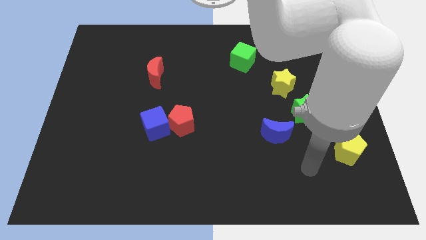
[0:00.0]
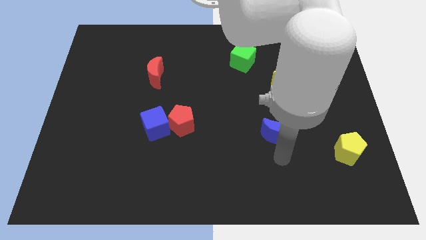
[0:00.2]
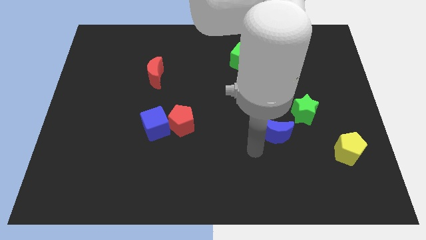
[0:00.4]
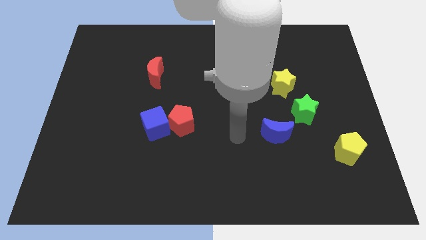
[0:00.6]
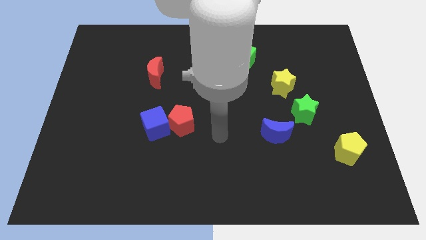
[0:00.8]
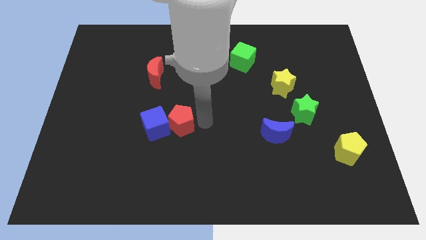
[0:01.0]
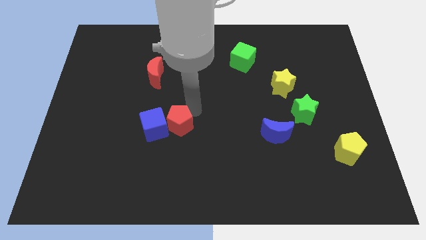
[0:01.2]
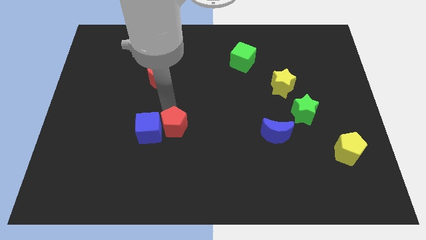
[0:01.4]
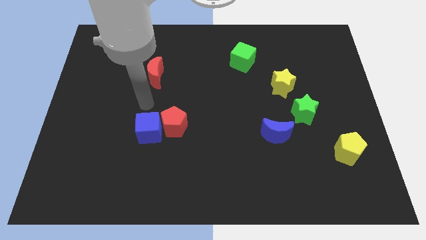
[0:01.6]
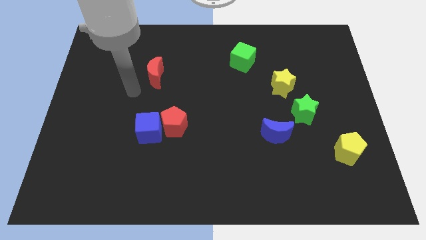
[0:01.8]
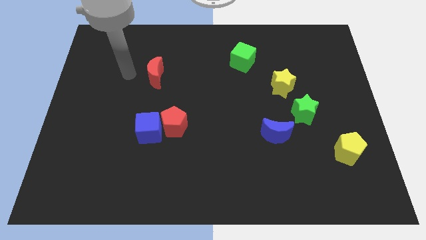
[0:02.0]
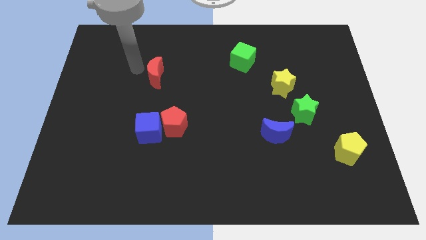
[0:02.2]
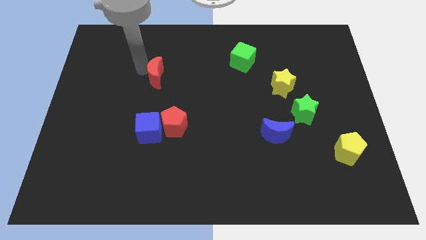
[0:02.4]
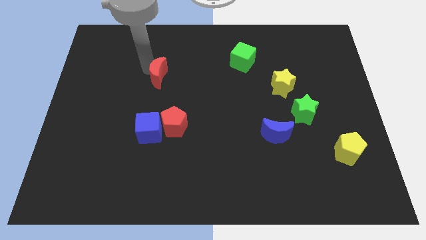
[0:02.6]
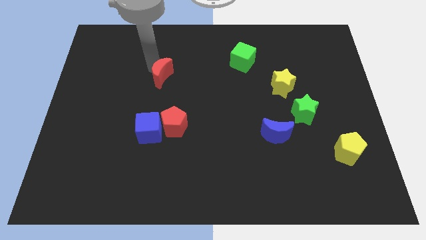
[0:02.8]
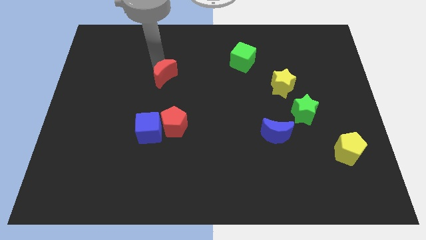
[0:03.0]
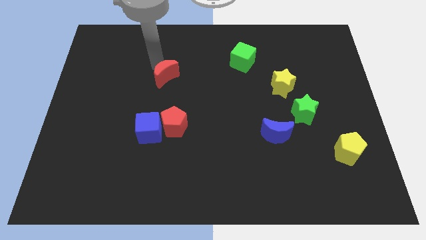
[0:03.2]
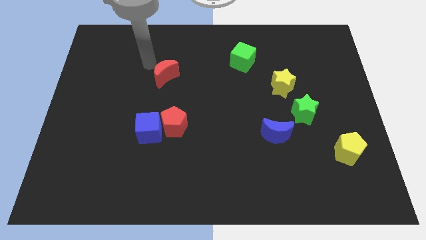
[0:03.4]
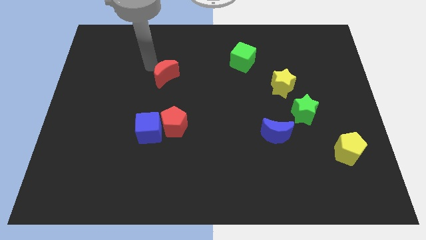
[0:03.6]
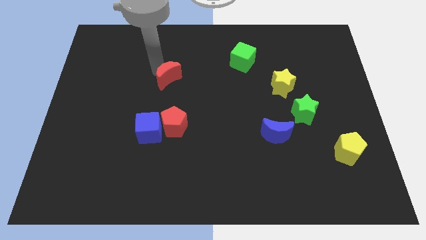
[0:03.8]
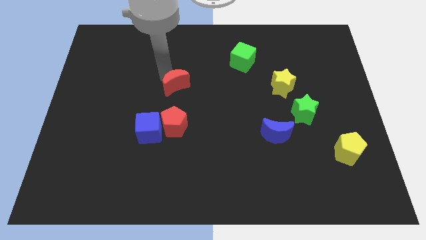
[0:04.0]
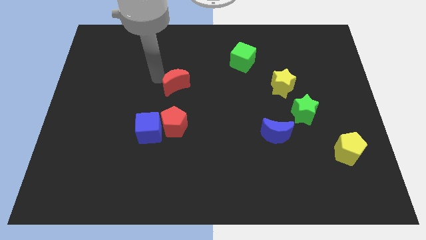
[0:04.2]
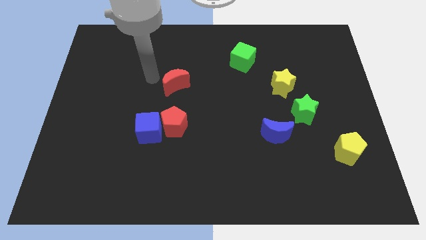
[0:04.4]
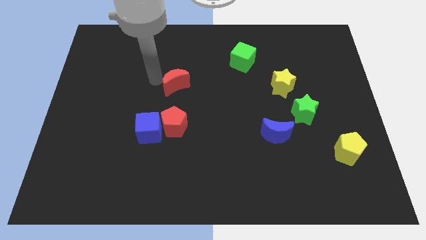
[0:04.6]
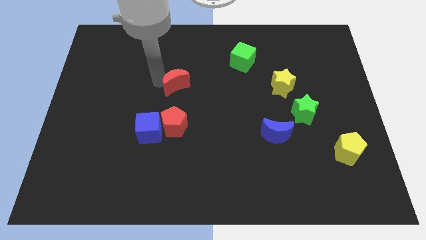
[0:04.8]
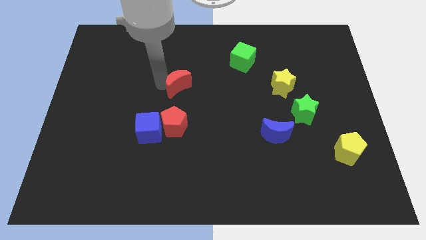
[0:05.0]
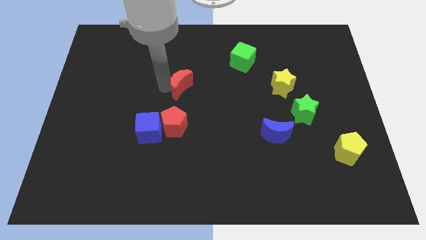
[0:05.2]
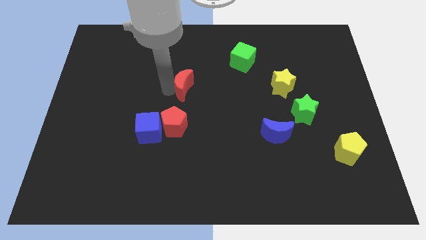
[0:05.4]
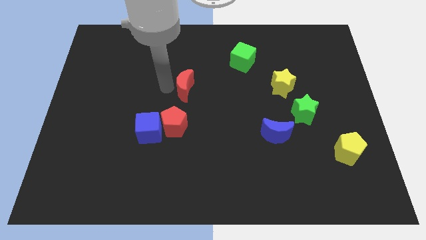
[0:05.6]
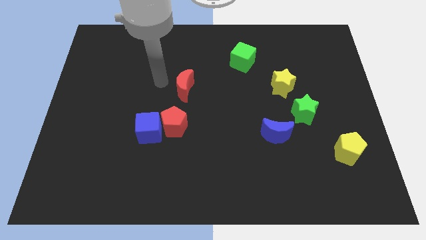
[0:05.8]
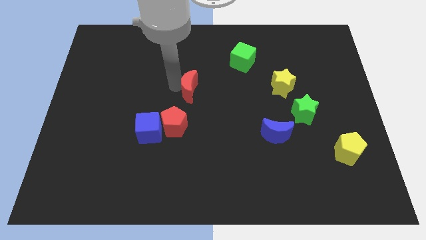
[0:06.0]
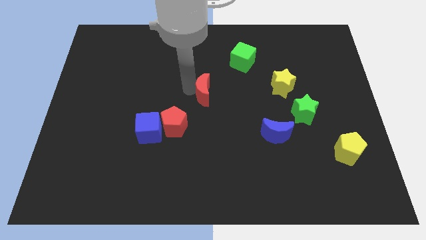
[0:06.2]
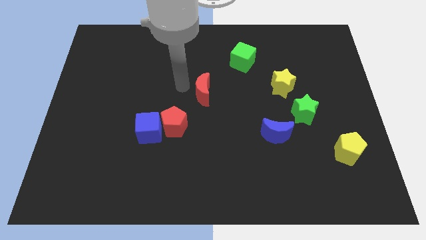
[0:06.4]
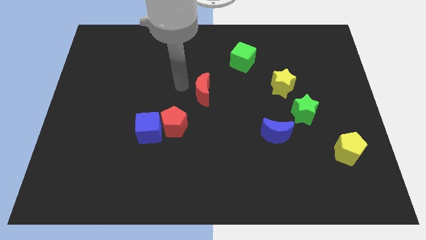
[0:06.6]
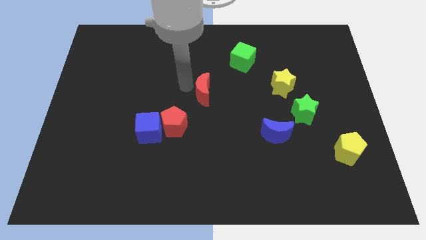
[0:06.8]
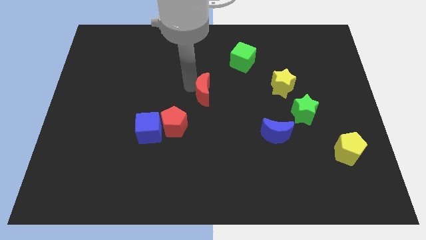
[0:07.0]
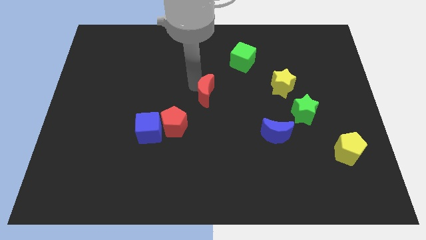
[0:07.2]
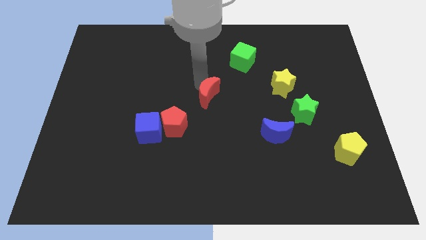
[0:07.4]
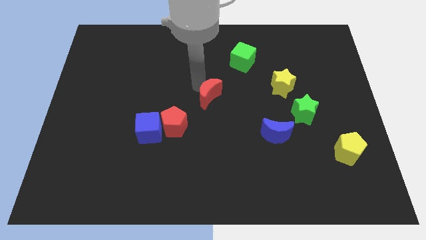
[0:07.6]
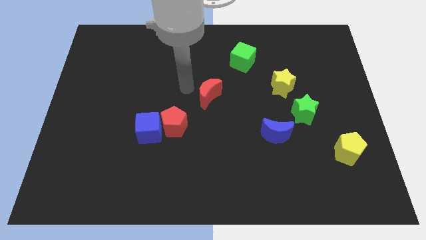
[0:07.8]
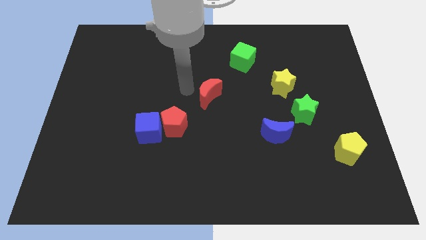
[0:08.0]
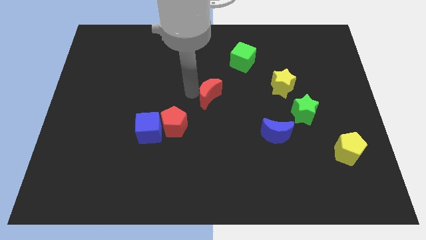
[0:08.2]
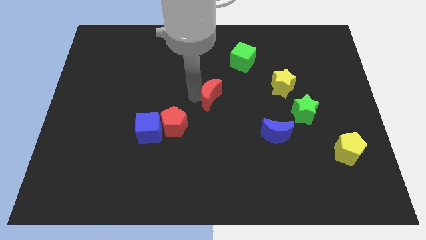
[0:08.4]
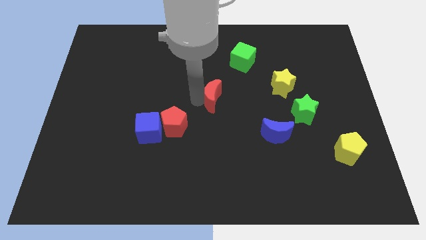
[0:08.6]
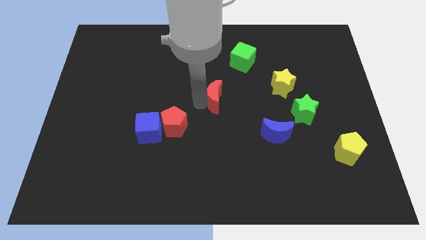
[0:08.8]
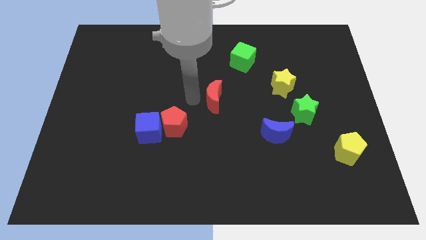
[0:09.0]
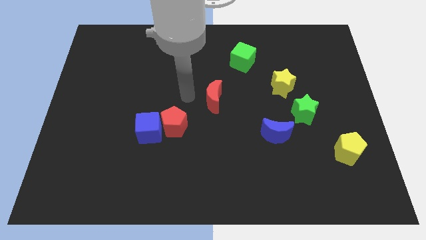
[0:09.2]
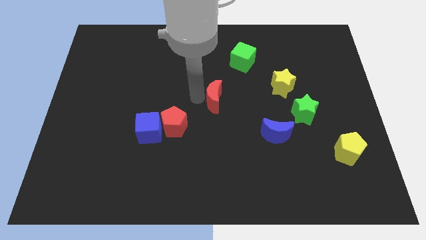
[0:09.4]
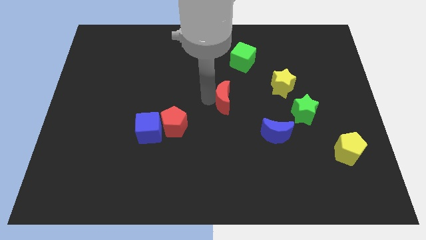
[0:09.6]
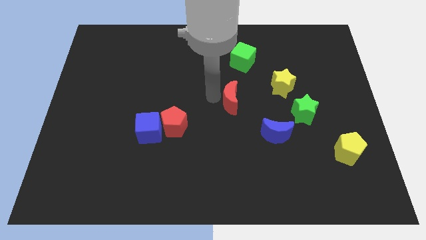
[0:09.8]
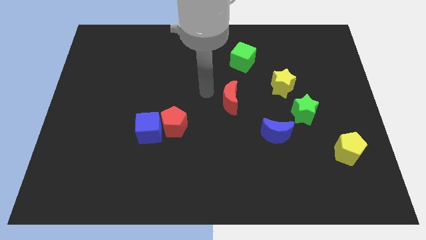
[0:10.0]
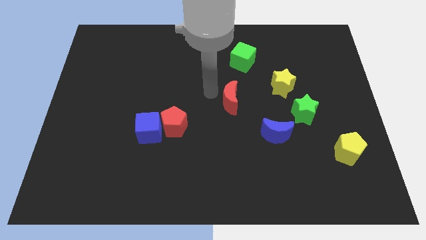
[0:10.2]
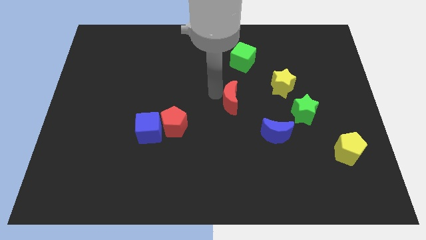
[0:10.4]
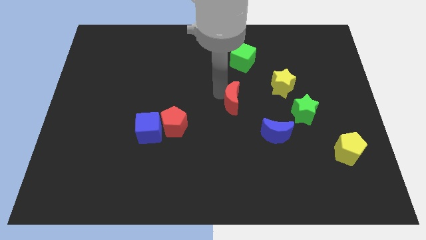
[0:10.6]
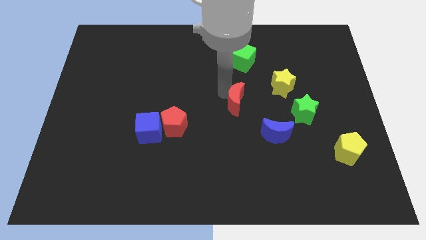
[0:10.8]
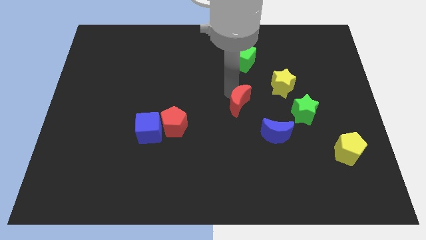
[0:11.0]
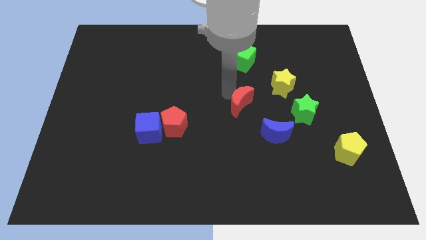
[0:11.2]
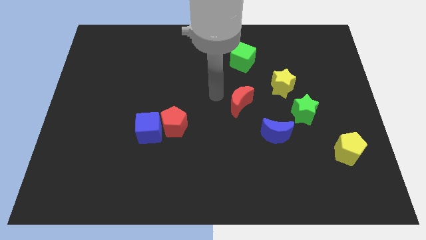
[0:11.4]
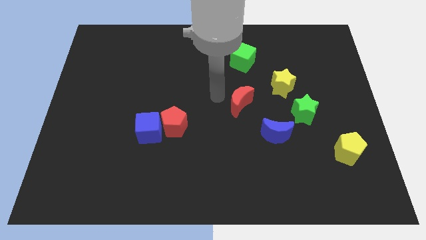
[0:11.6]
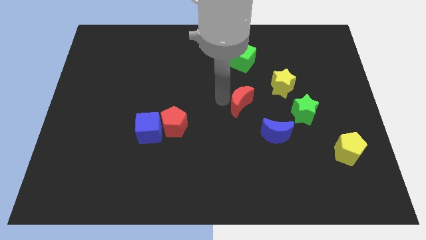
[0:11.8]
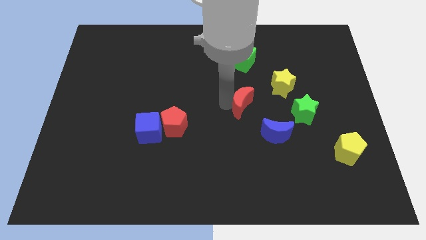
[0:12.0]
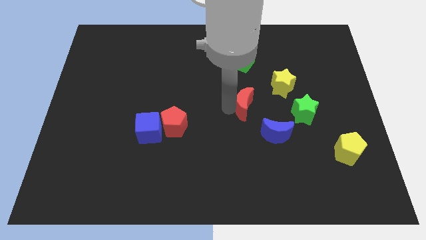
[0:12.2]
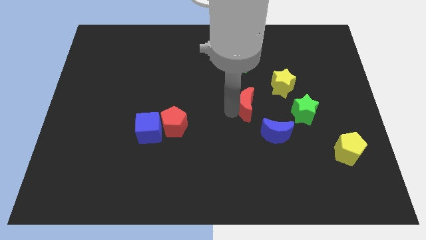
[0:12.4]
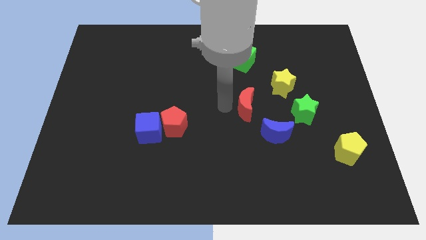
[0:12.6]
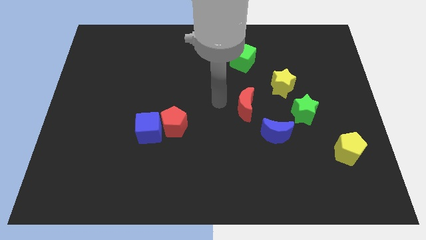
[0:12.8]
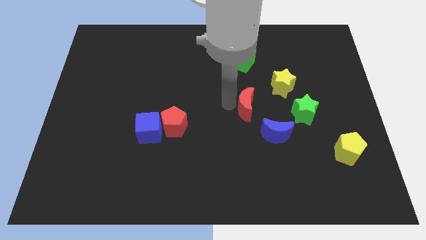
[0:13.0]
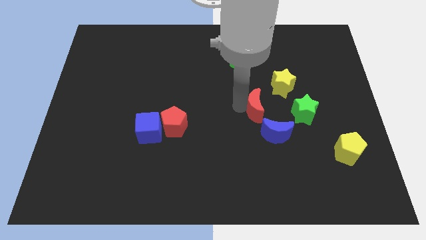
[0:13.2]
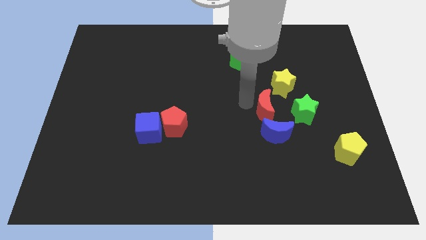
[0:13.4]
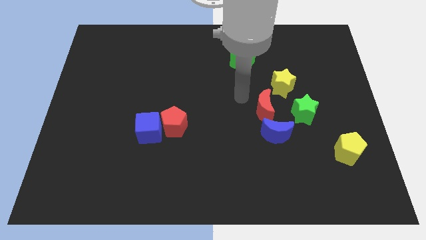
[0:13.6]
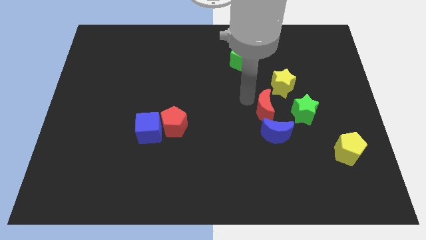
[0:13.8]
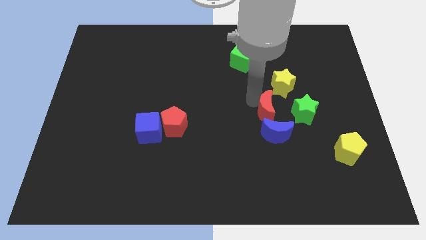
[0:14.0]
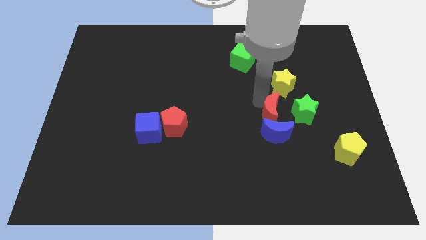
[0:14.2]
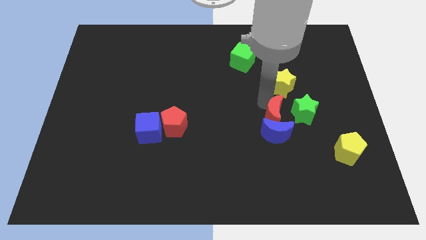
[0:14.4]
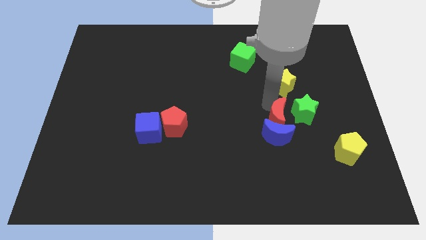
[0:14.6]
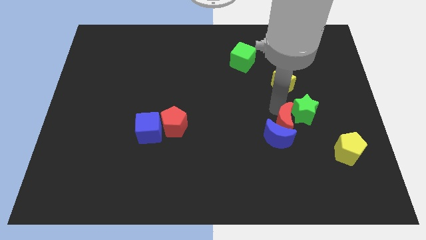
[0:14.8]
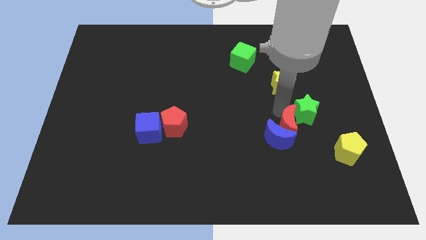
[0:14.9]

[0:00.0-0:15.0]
put the red moon to the right side of the blue moon
